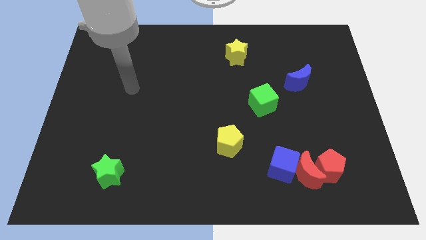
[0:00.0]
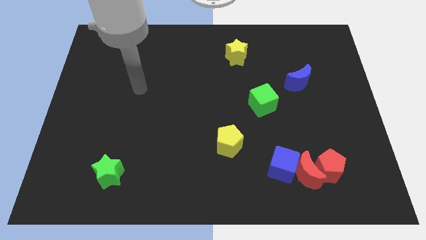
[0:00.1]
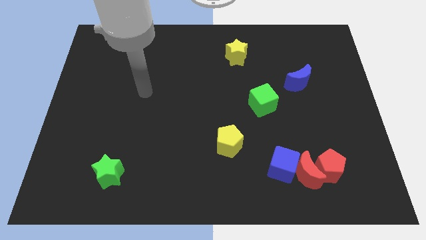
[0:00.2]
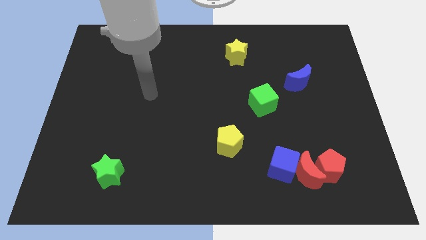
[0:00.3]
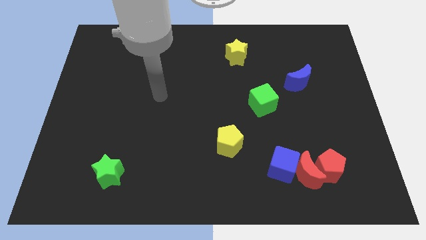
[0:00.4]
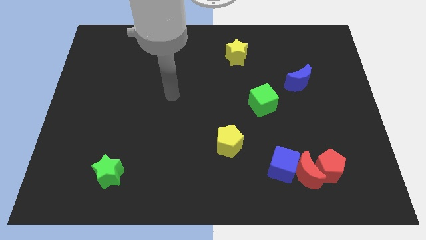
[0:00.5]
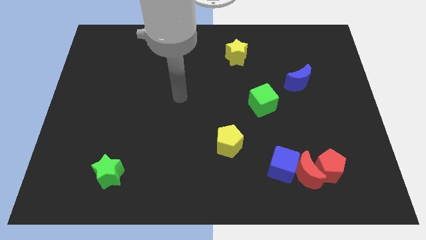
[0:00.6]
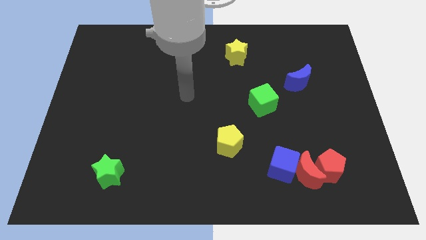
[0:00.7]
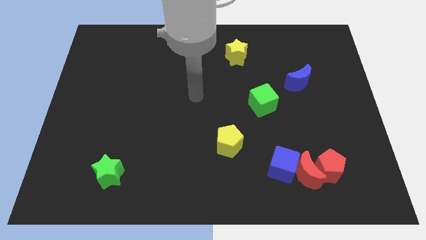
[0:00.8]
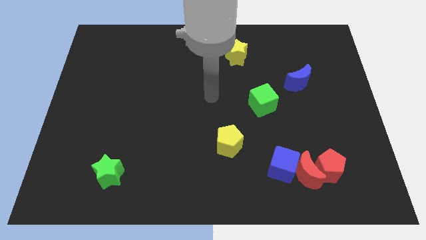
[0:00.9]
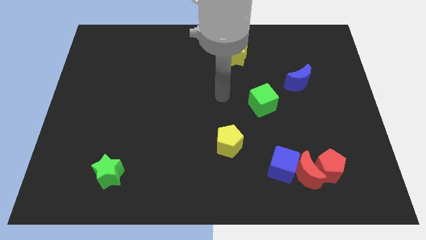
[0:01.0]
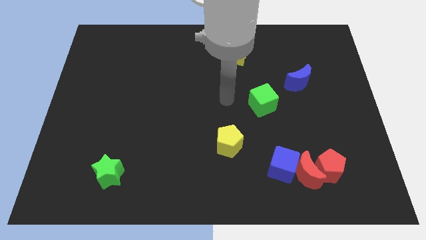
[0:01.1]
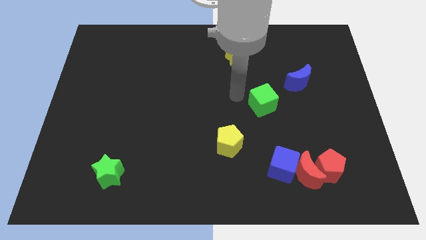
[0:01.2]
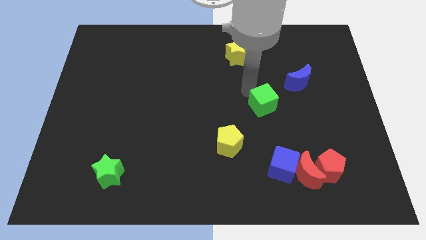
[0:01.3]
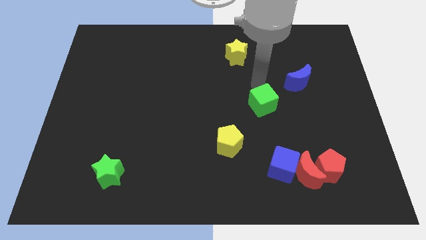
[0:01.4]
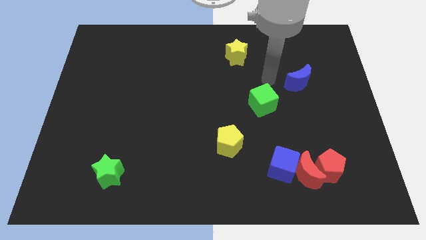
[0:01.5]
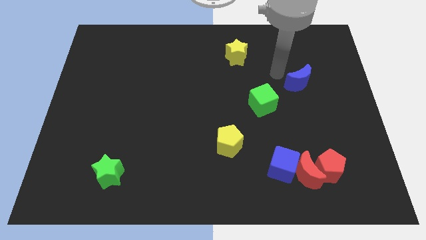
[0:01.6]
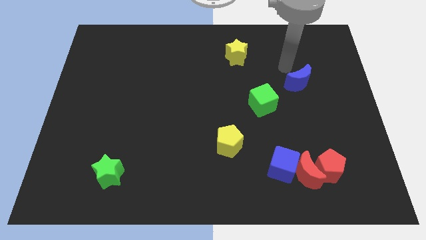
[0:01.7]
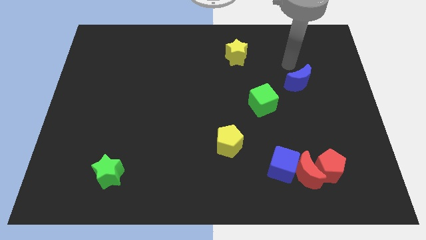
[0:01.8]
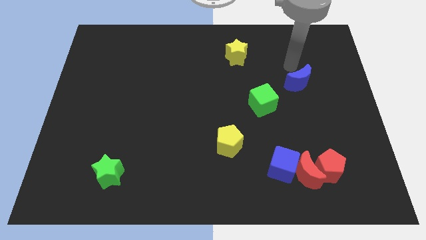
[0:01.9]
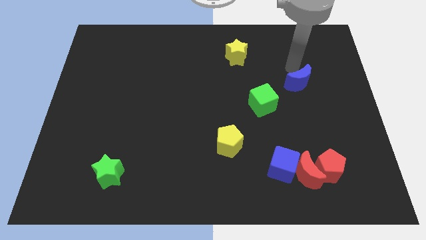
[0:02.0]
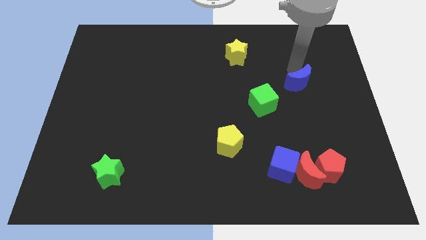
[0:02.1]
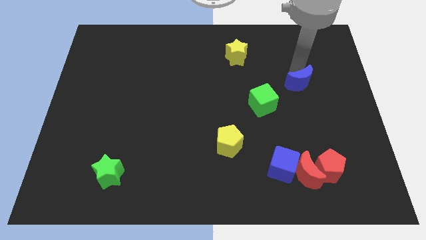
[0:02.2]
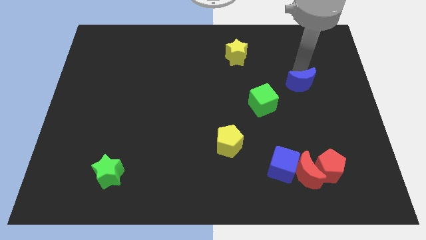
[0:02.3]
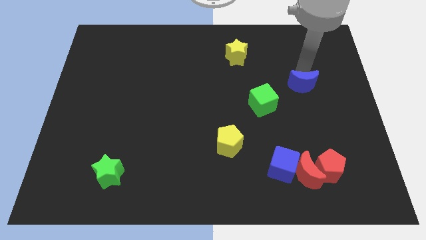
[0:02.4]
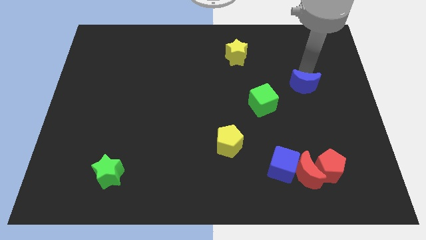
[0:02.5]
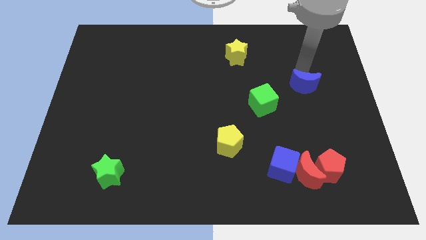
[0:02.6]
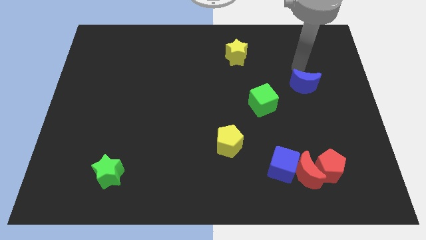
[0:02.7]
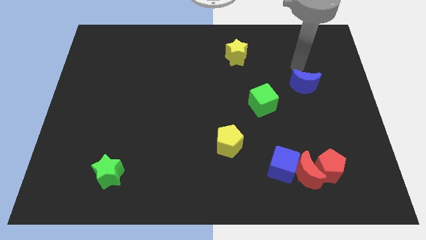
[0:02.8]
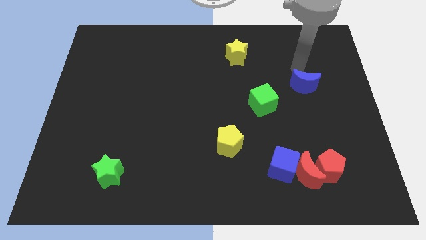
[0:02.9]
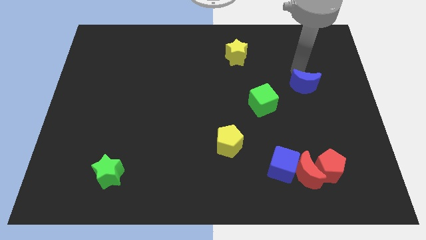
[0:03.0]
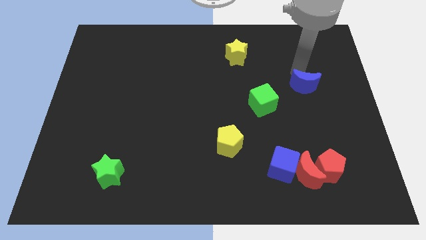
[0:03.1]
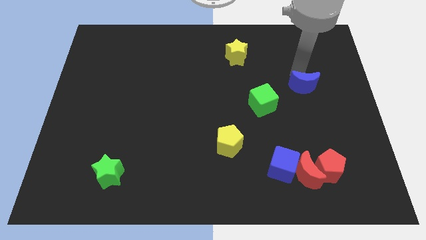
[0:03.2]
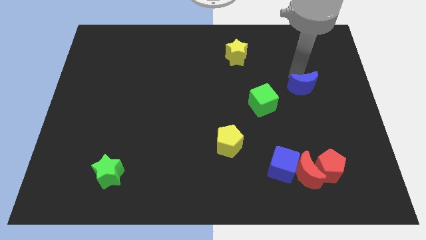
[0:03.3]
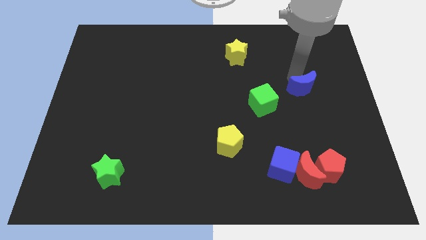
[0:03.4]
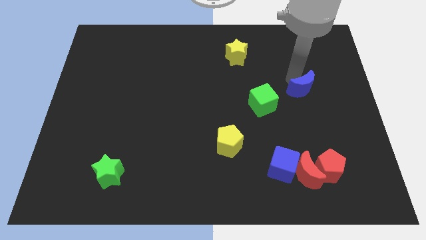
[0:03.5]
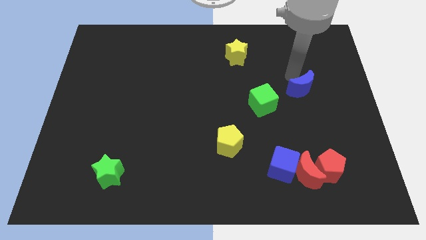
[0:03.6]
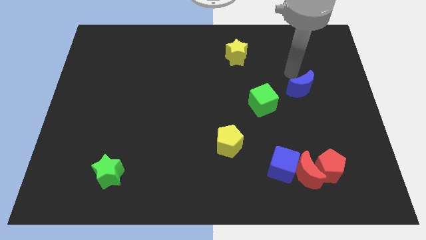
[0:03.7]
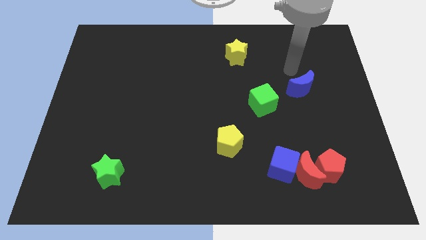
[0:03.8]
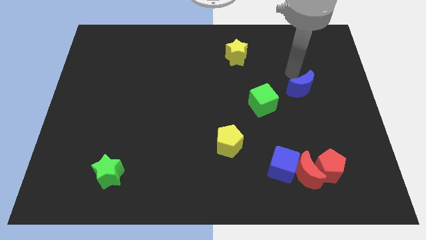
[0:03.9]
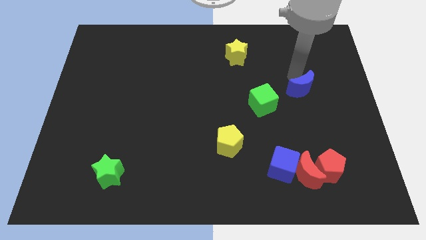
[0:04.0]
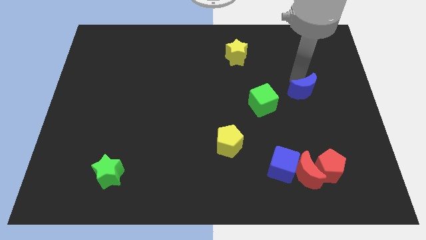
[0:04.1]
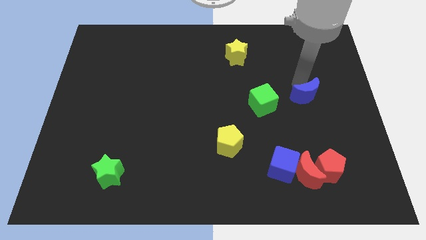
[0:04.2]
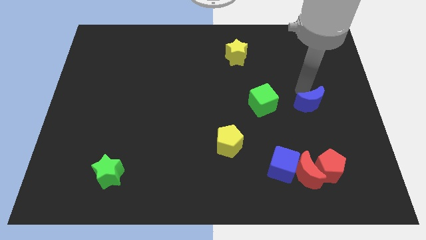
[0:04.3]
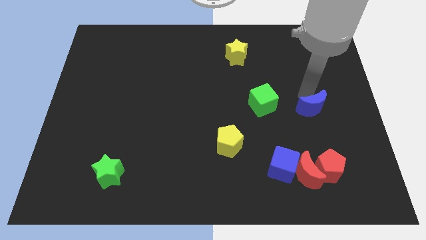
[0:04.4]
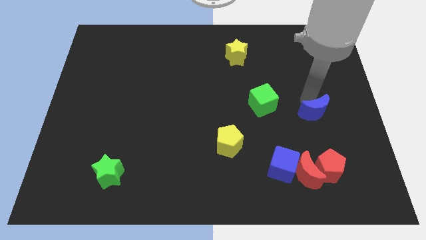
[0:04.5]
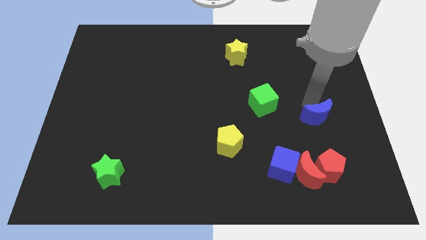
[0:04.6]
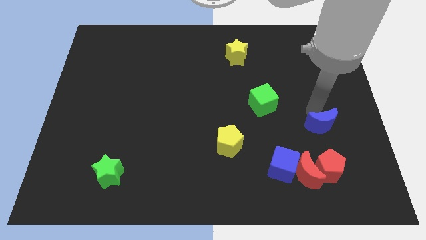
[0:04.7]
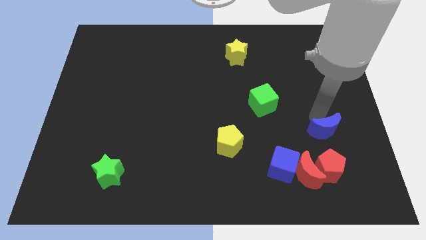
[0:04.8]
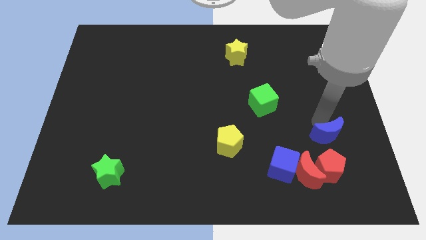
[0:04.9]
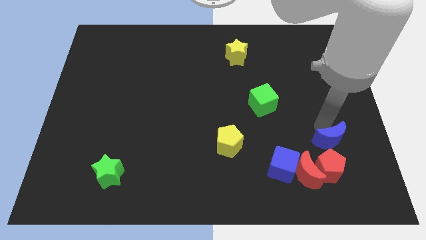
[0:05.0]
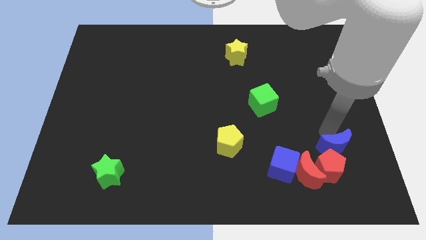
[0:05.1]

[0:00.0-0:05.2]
push the blue moon just right of the blue cube

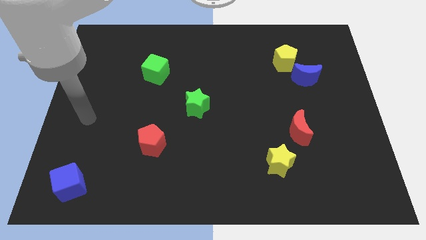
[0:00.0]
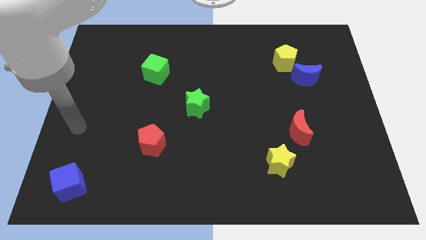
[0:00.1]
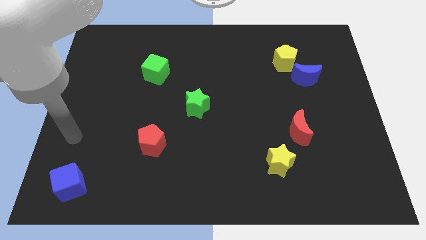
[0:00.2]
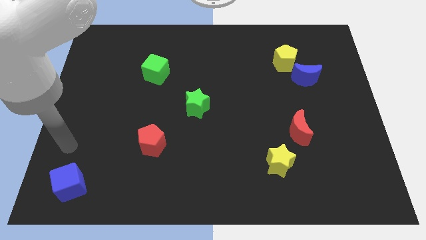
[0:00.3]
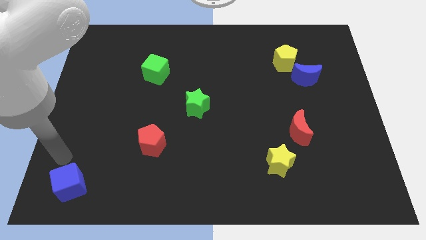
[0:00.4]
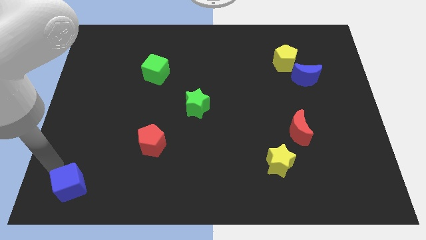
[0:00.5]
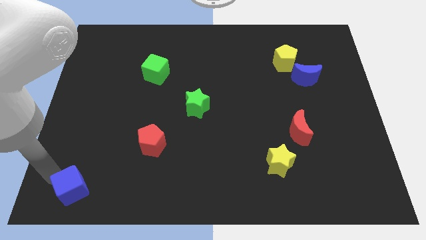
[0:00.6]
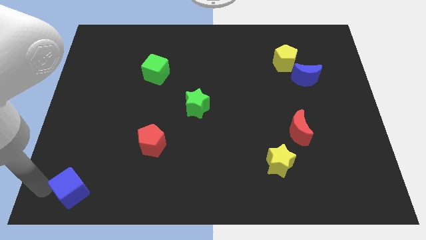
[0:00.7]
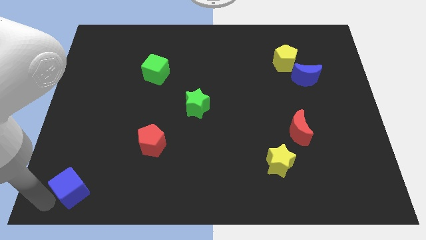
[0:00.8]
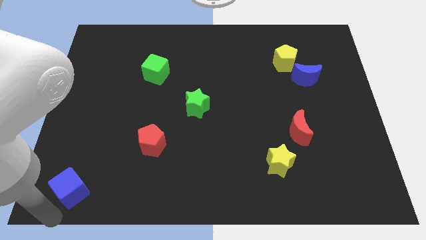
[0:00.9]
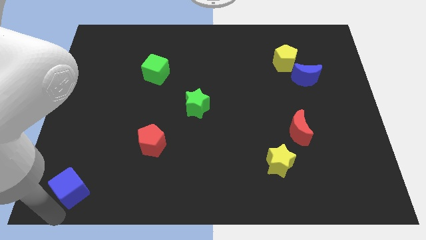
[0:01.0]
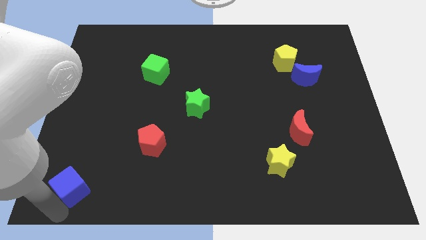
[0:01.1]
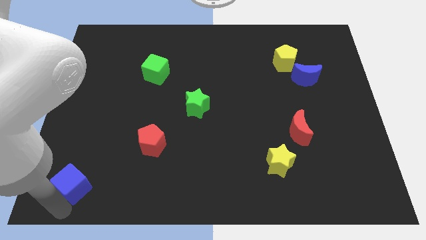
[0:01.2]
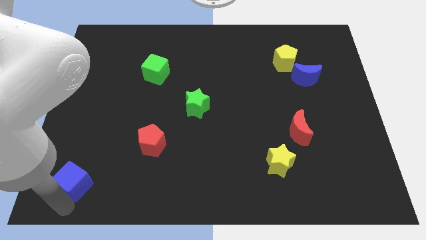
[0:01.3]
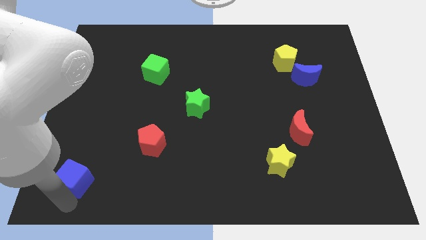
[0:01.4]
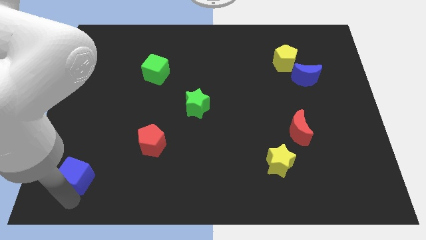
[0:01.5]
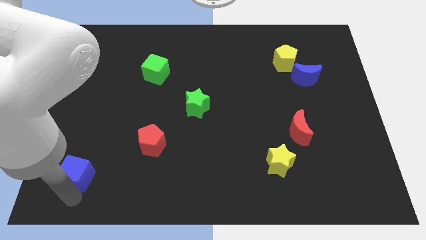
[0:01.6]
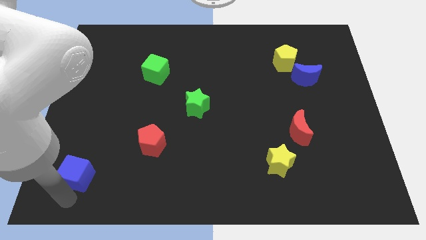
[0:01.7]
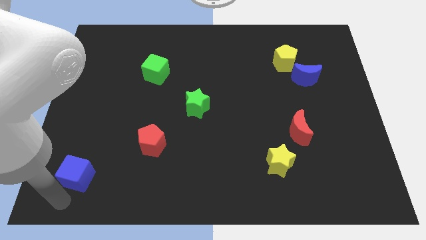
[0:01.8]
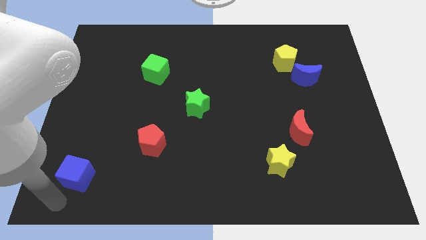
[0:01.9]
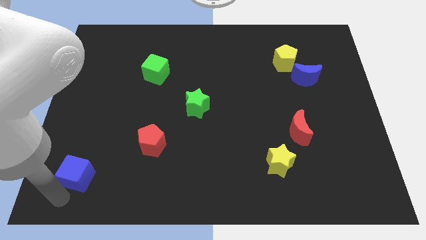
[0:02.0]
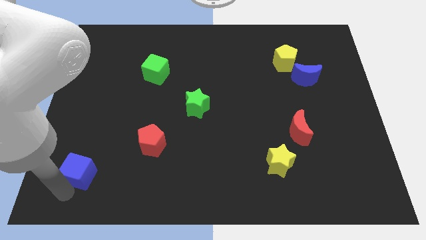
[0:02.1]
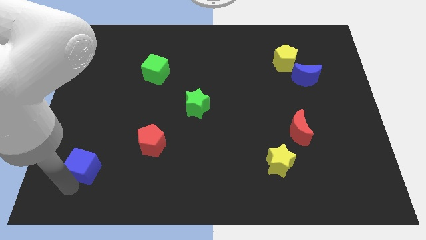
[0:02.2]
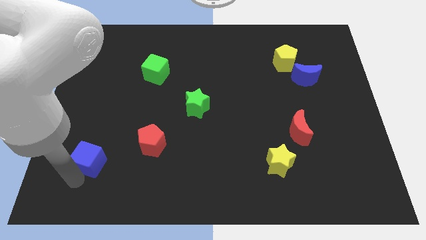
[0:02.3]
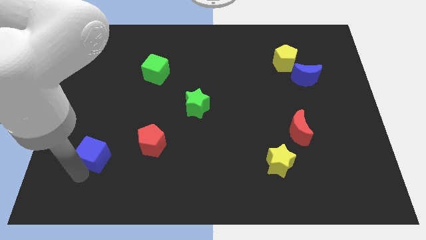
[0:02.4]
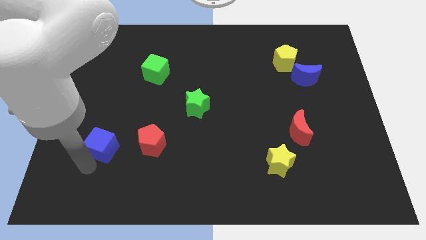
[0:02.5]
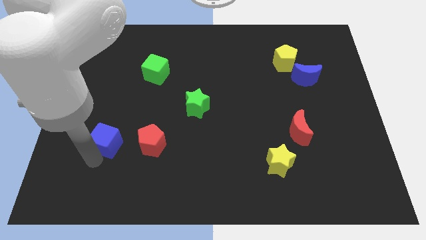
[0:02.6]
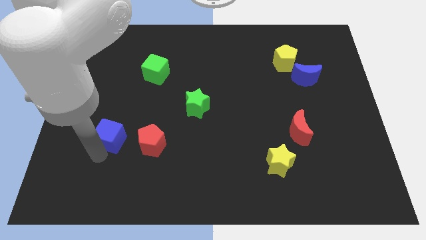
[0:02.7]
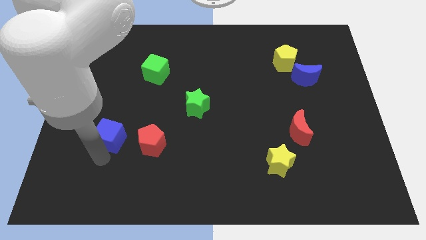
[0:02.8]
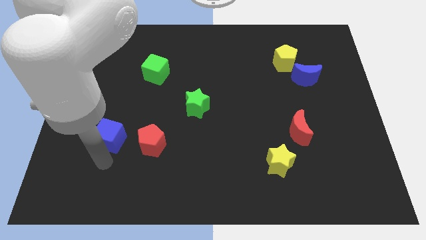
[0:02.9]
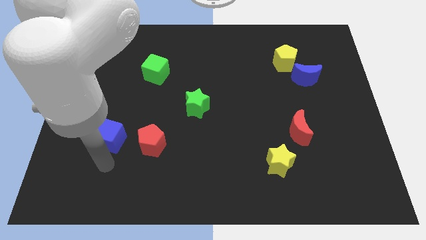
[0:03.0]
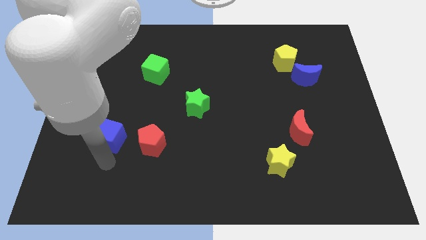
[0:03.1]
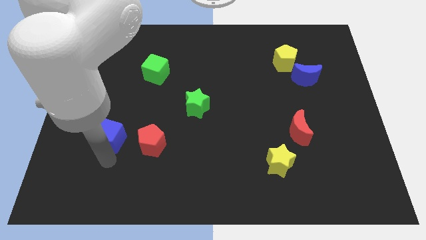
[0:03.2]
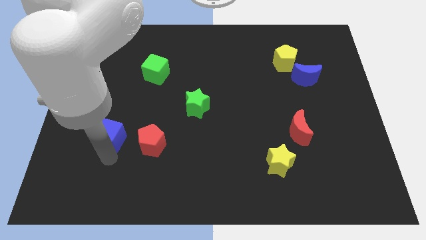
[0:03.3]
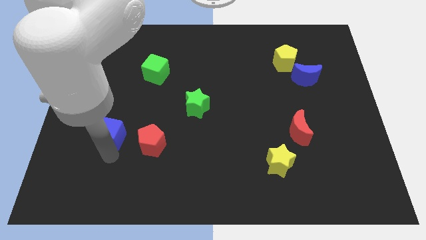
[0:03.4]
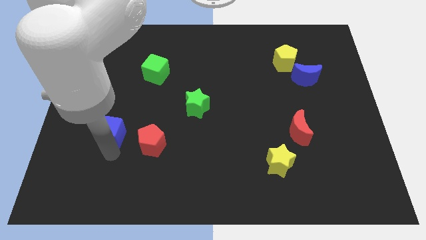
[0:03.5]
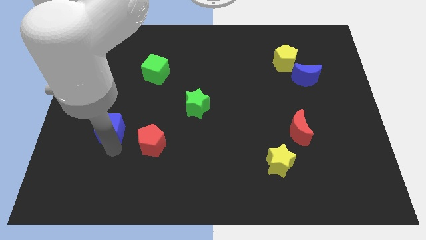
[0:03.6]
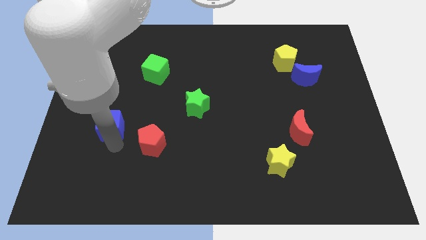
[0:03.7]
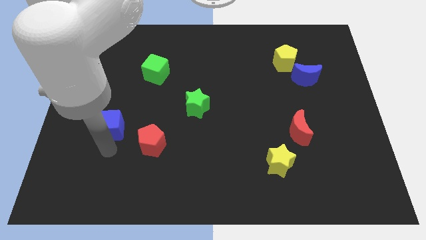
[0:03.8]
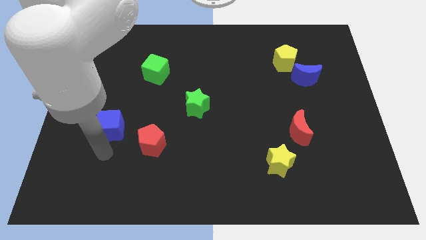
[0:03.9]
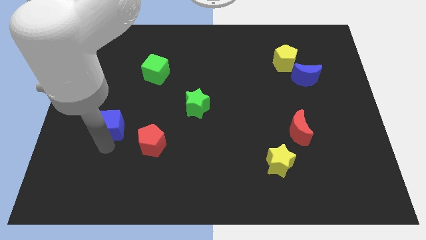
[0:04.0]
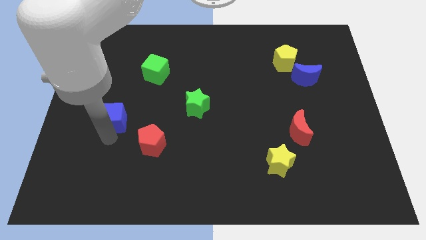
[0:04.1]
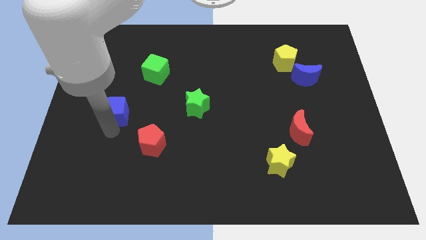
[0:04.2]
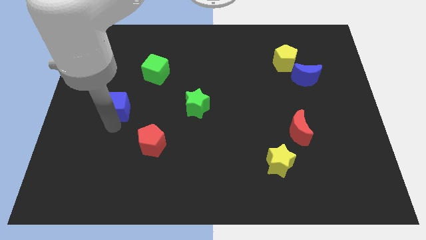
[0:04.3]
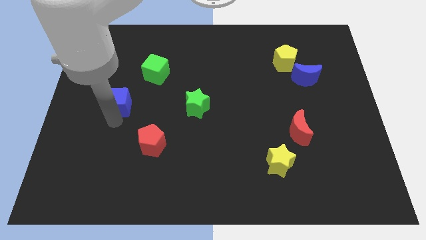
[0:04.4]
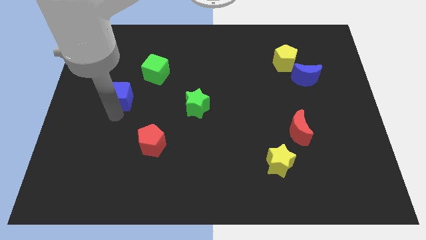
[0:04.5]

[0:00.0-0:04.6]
move the blue cube to the bottom left side of the green cube
